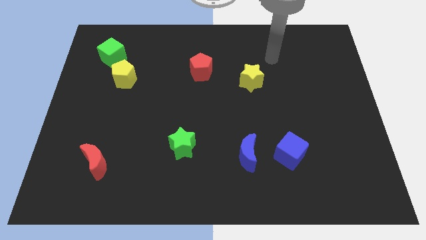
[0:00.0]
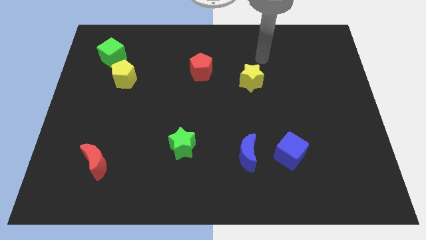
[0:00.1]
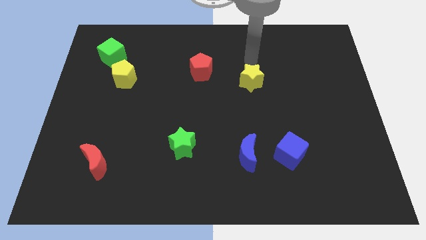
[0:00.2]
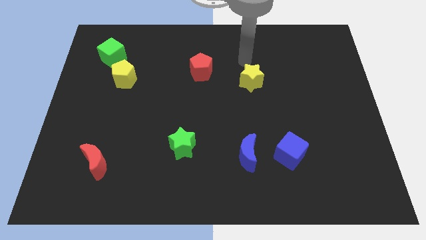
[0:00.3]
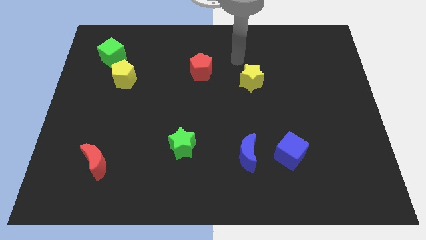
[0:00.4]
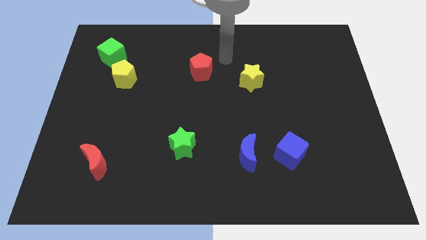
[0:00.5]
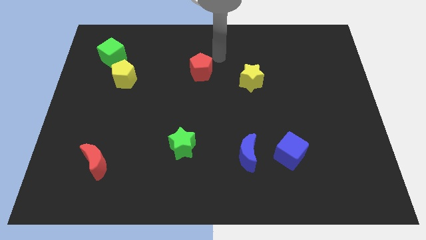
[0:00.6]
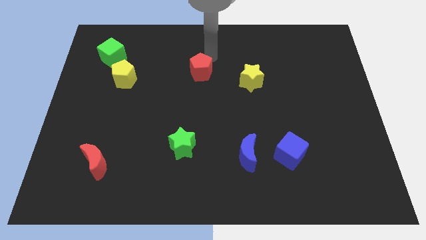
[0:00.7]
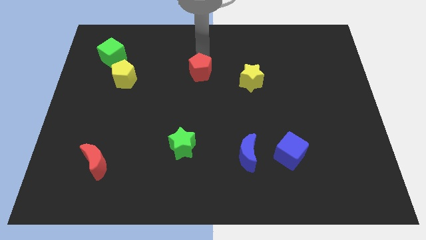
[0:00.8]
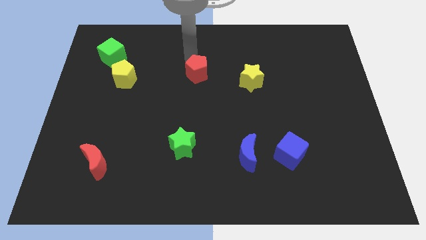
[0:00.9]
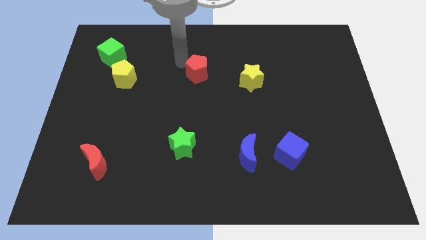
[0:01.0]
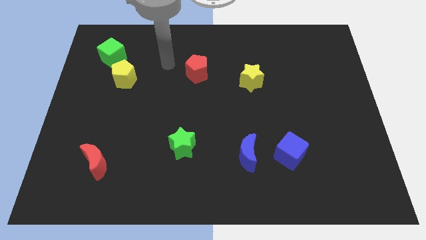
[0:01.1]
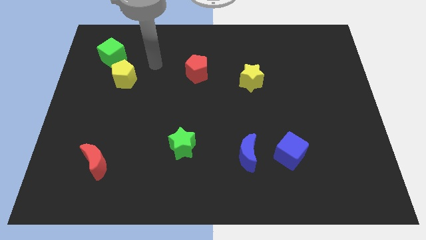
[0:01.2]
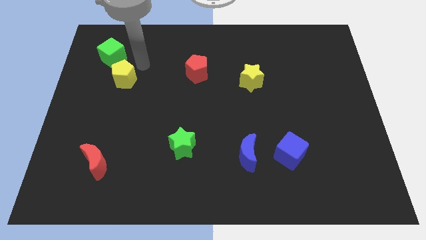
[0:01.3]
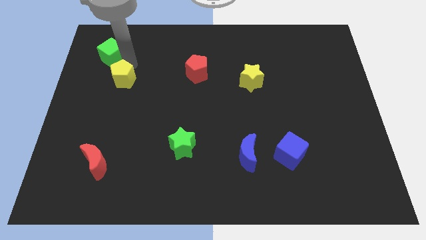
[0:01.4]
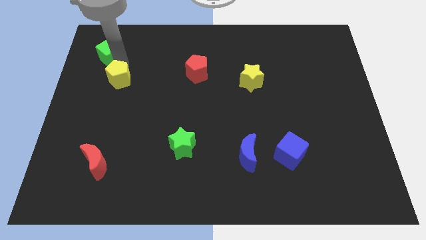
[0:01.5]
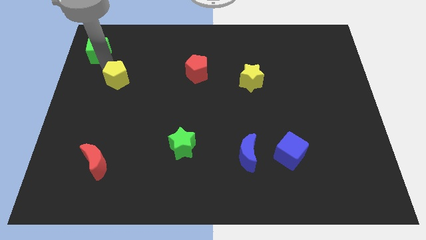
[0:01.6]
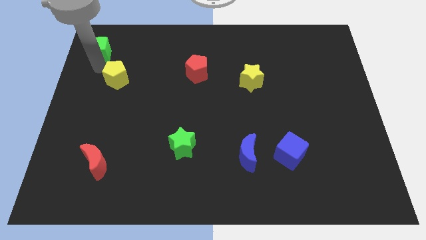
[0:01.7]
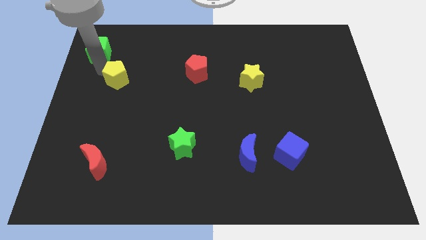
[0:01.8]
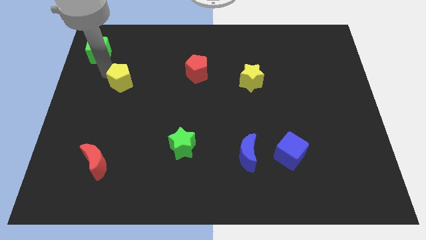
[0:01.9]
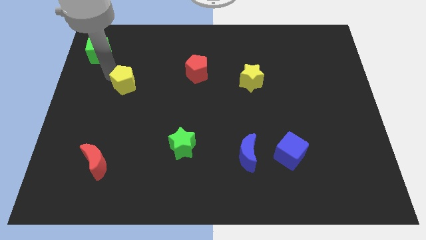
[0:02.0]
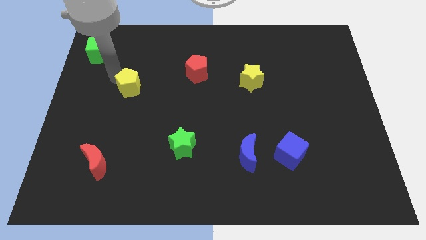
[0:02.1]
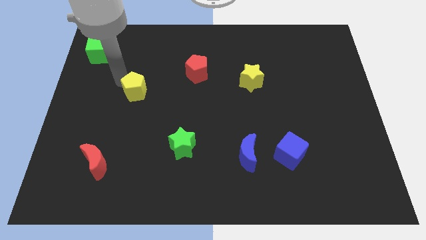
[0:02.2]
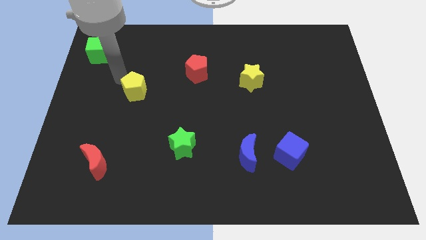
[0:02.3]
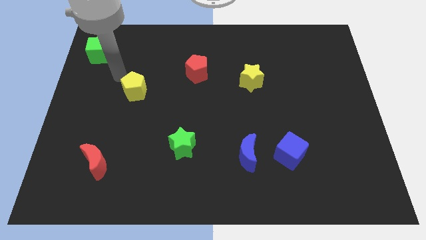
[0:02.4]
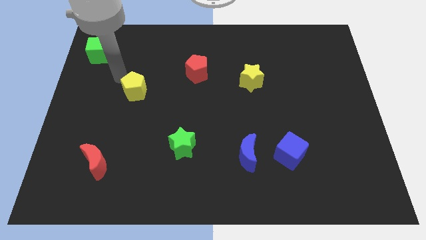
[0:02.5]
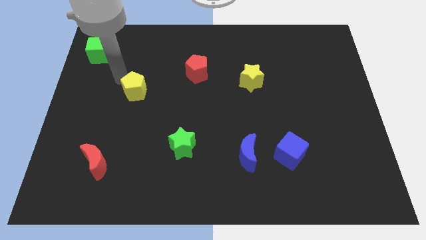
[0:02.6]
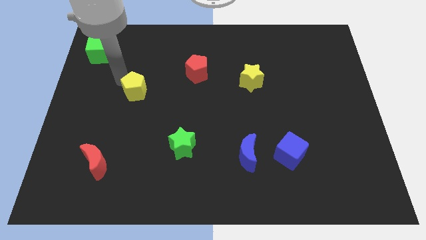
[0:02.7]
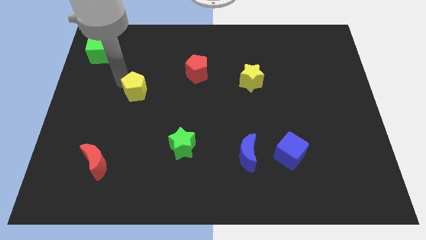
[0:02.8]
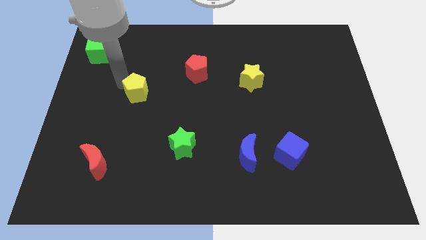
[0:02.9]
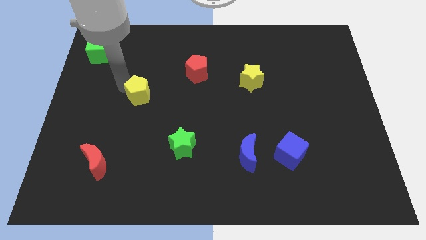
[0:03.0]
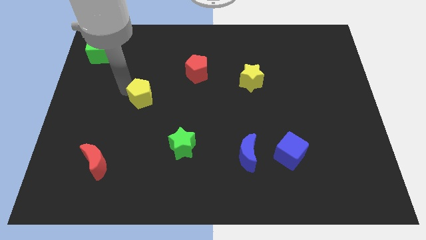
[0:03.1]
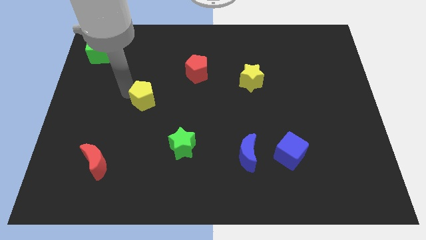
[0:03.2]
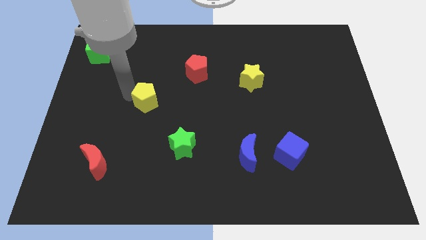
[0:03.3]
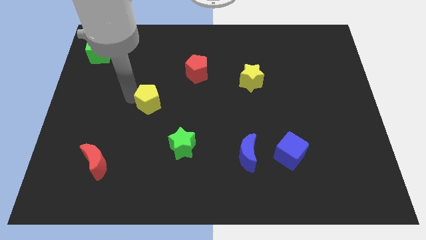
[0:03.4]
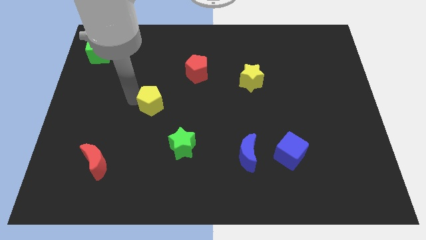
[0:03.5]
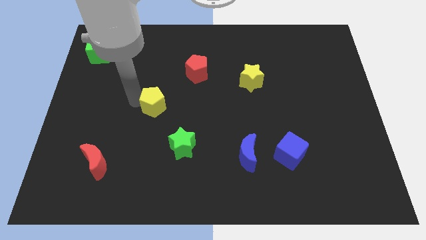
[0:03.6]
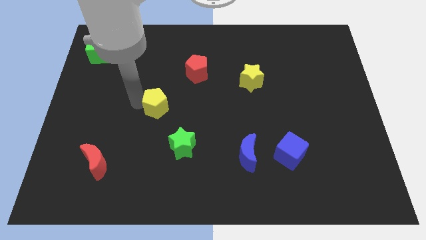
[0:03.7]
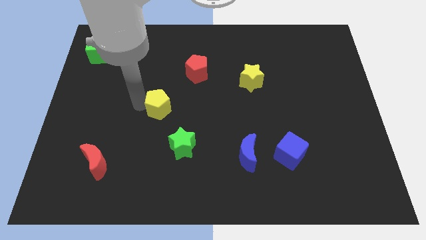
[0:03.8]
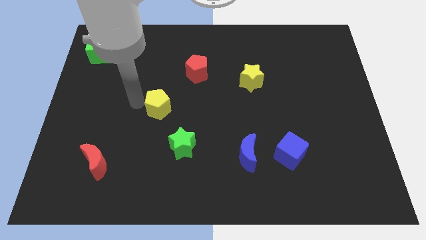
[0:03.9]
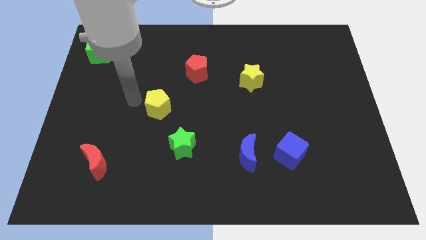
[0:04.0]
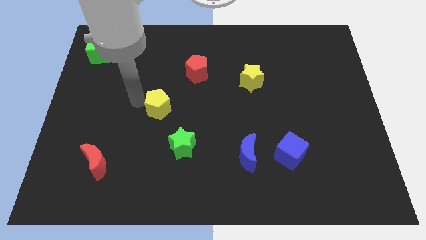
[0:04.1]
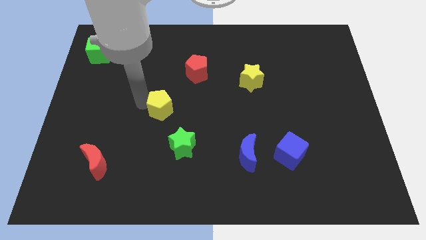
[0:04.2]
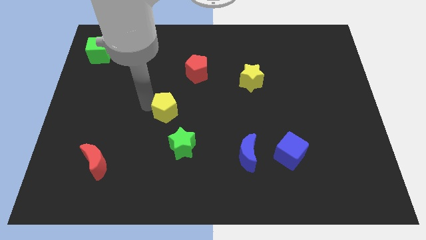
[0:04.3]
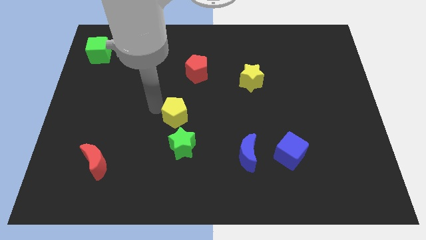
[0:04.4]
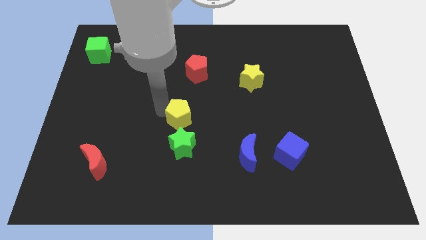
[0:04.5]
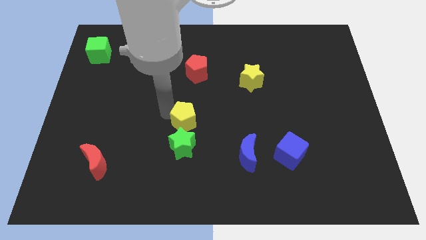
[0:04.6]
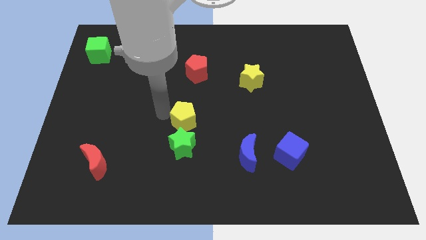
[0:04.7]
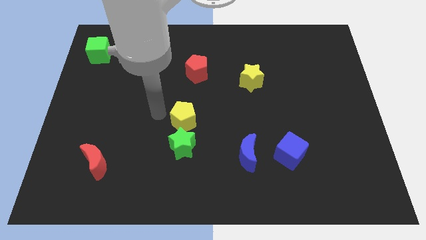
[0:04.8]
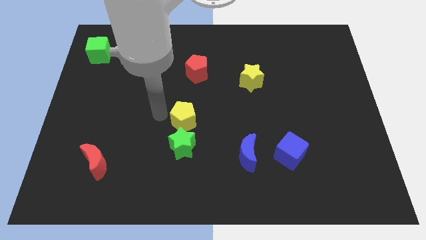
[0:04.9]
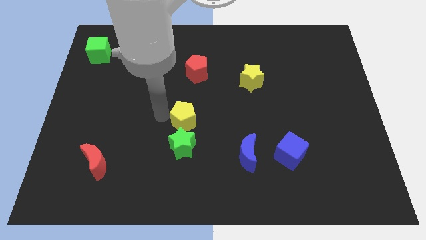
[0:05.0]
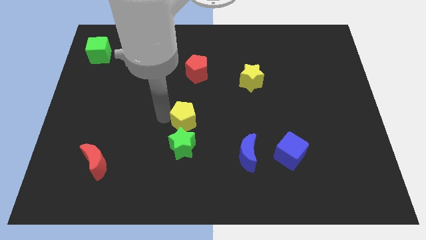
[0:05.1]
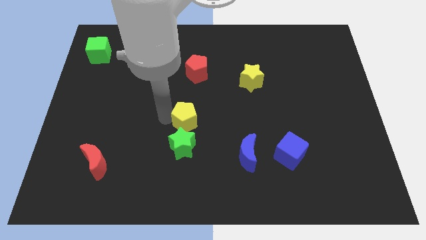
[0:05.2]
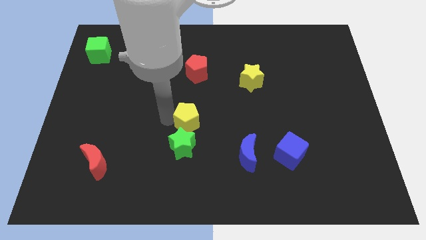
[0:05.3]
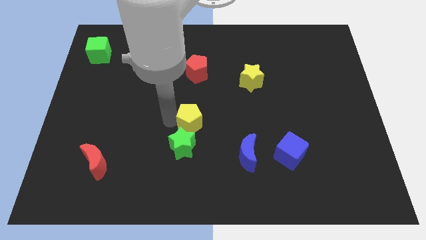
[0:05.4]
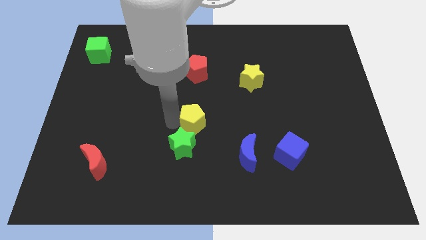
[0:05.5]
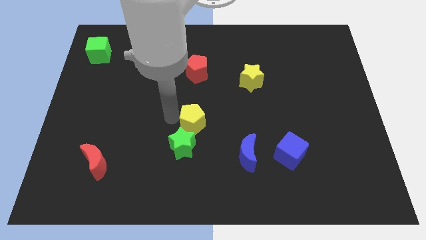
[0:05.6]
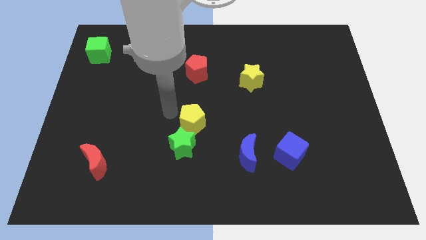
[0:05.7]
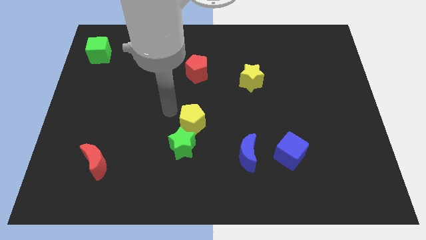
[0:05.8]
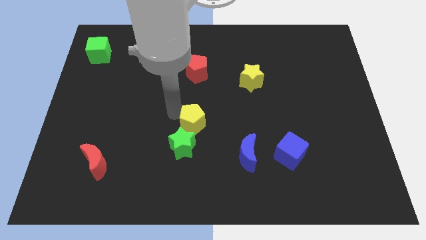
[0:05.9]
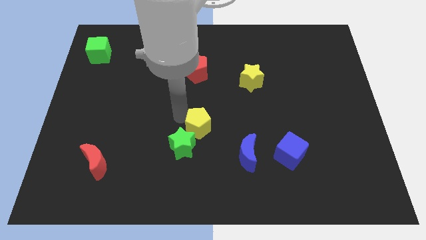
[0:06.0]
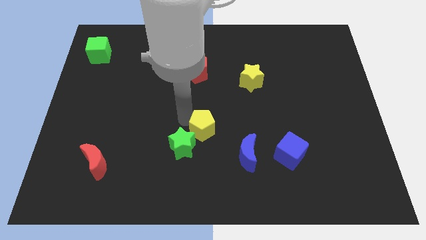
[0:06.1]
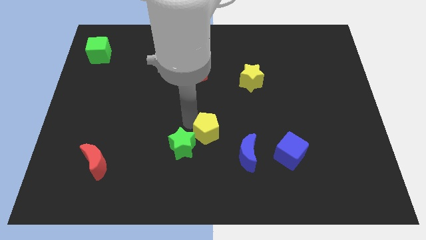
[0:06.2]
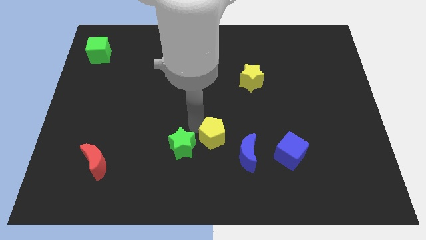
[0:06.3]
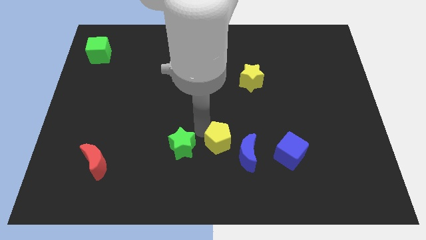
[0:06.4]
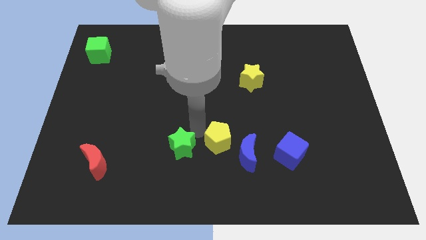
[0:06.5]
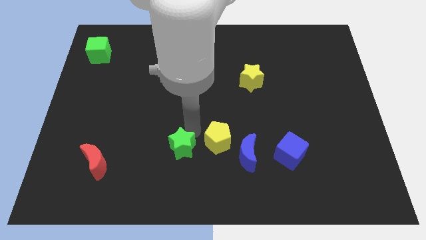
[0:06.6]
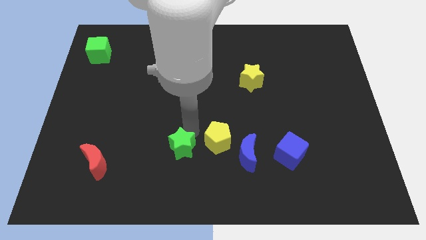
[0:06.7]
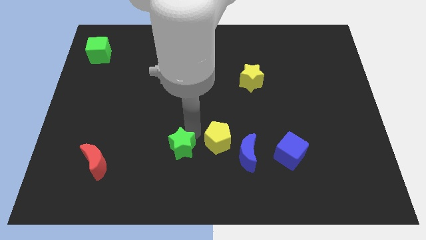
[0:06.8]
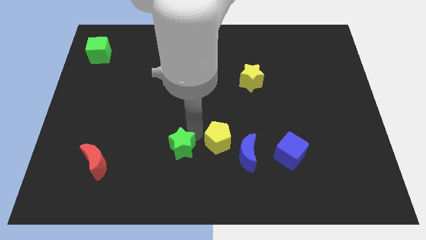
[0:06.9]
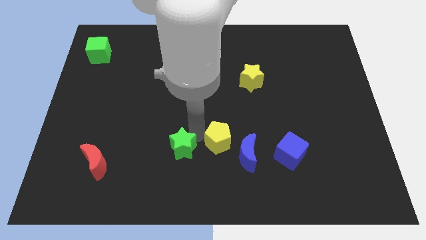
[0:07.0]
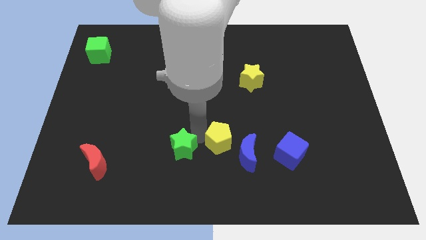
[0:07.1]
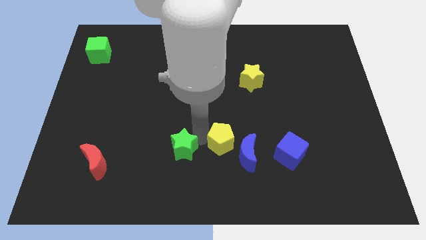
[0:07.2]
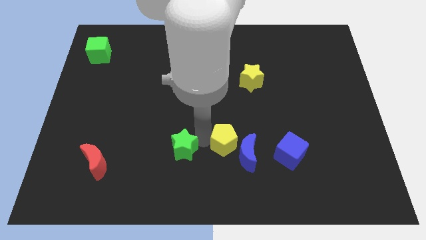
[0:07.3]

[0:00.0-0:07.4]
slide the yellow pentagon to the blue moon

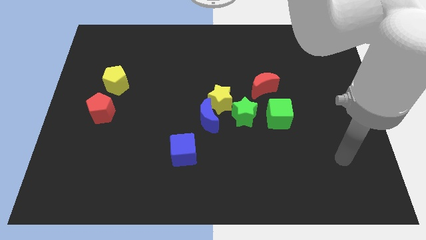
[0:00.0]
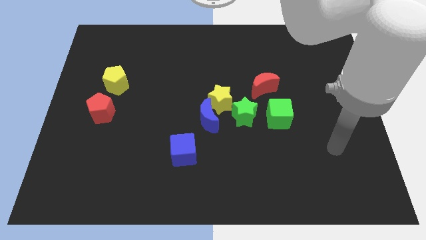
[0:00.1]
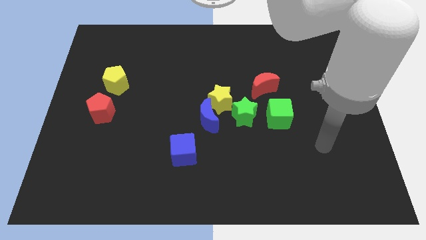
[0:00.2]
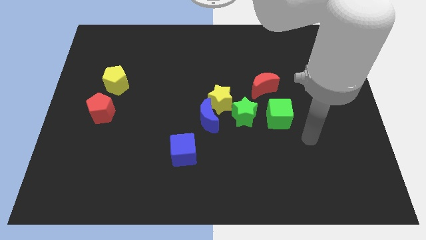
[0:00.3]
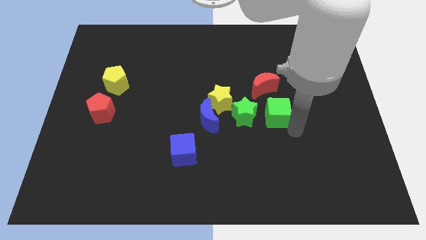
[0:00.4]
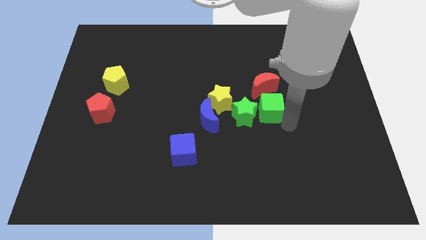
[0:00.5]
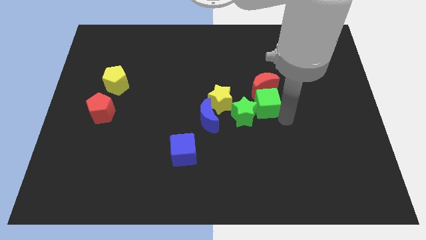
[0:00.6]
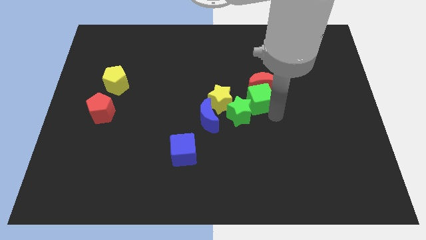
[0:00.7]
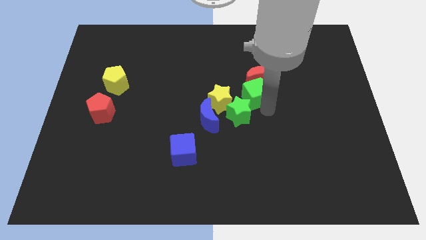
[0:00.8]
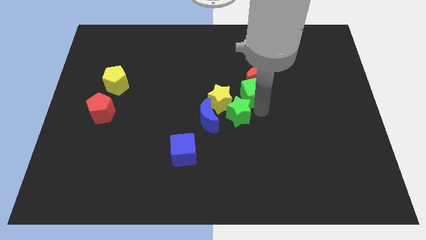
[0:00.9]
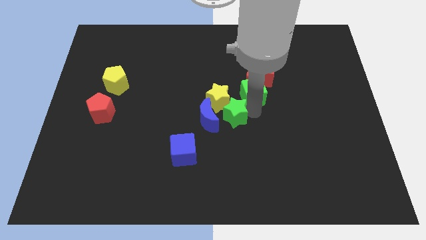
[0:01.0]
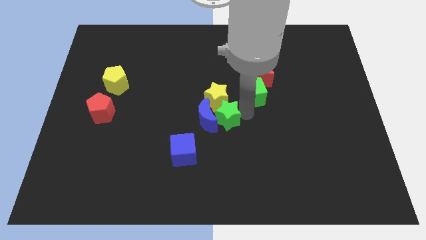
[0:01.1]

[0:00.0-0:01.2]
push the green star close to the blue moon
